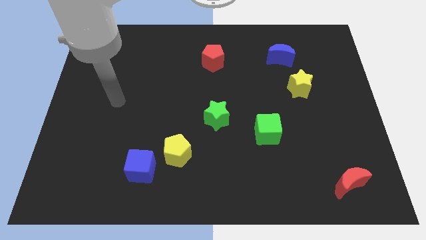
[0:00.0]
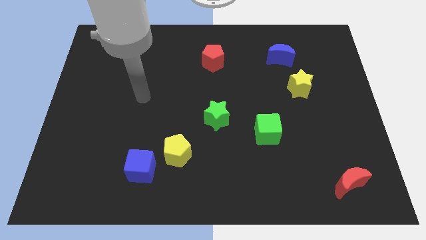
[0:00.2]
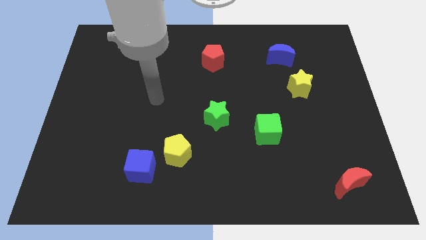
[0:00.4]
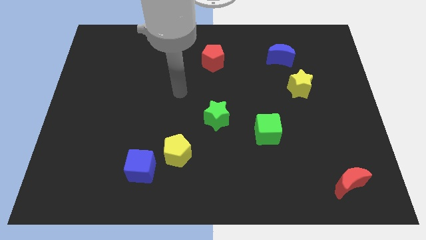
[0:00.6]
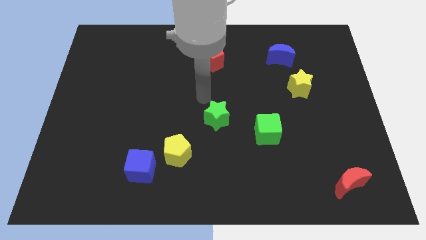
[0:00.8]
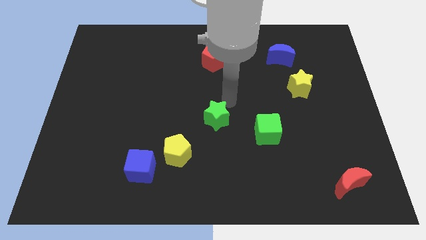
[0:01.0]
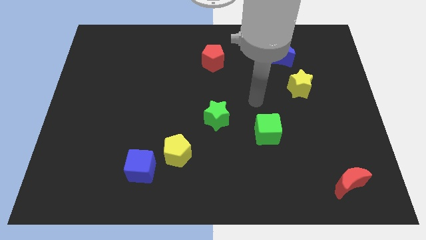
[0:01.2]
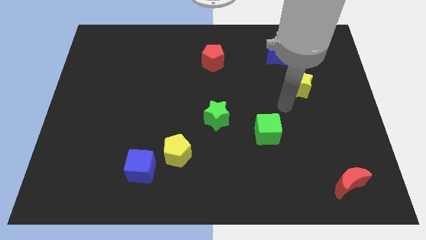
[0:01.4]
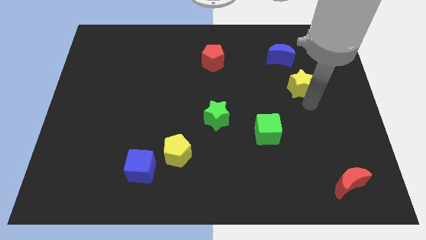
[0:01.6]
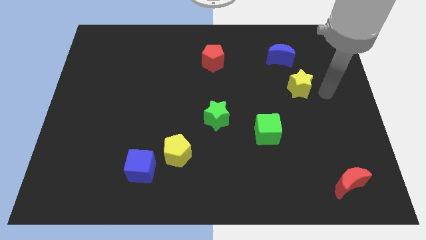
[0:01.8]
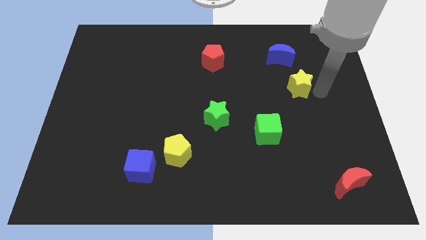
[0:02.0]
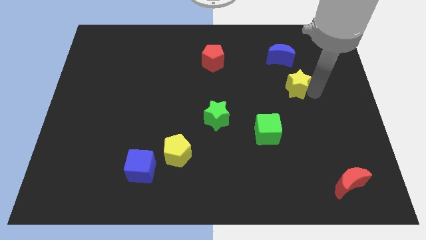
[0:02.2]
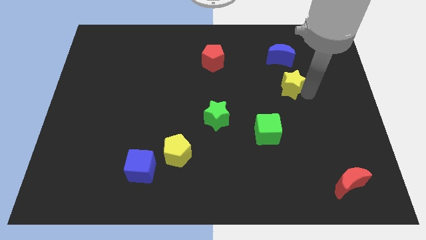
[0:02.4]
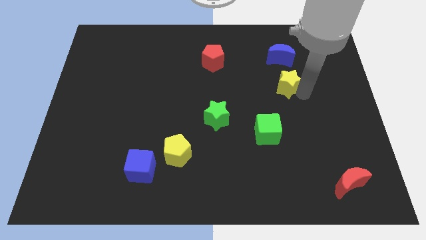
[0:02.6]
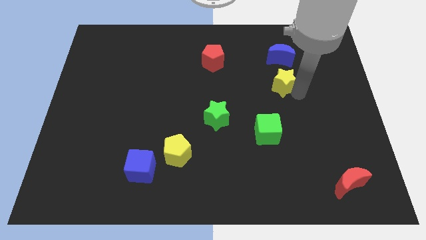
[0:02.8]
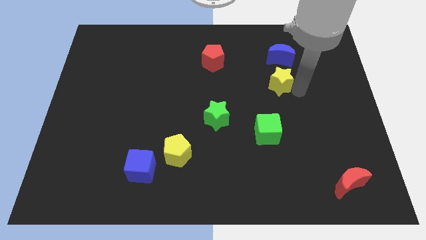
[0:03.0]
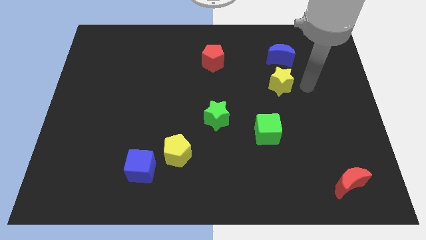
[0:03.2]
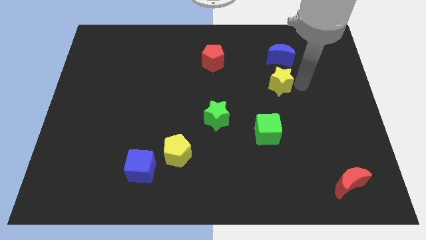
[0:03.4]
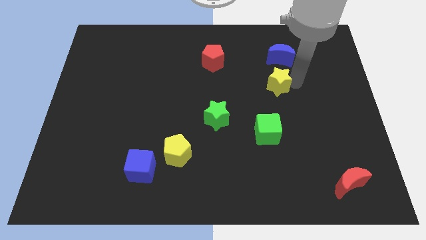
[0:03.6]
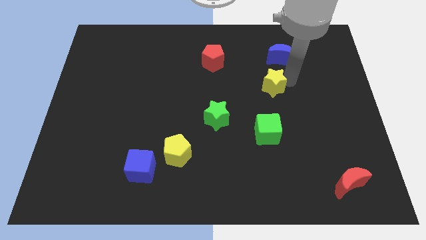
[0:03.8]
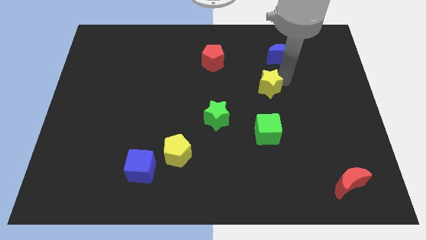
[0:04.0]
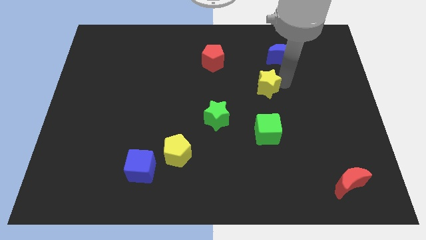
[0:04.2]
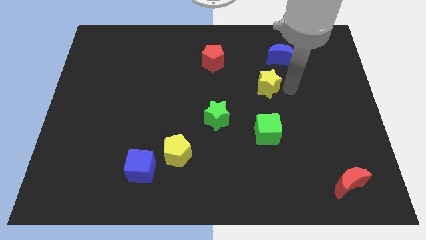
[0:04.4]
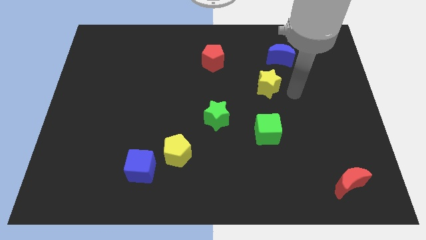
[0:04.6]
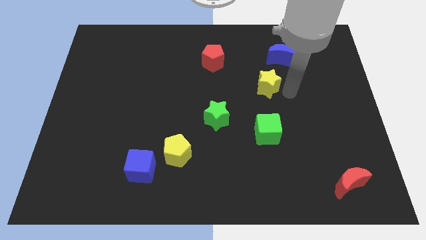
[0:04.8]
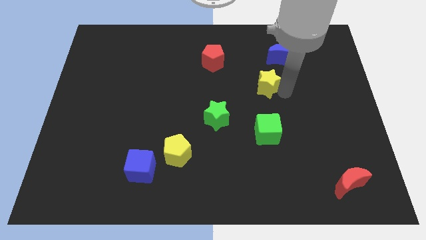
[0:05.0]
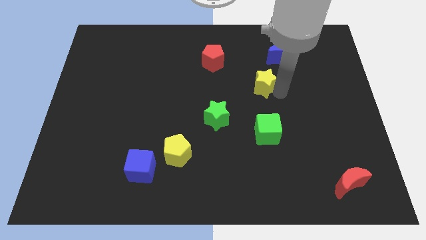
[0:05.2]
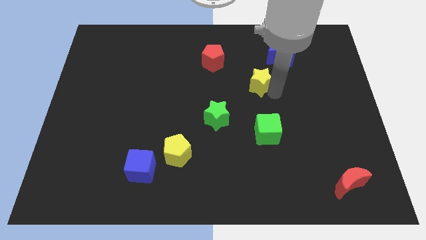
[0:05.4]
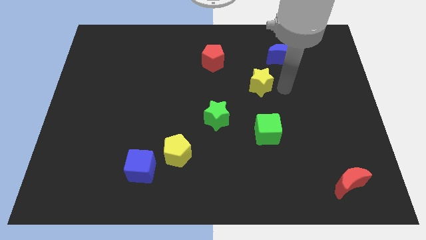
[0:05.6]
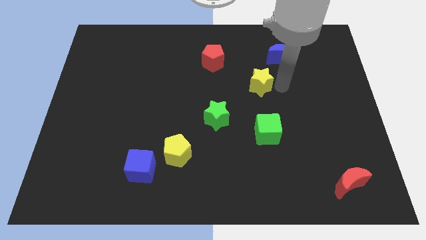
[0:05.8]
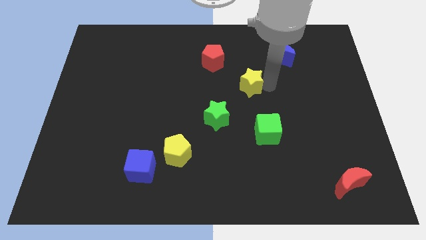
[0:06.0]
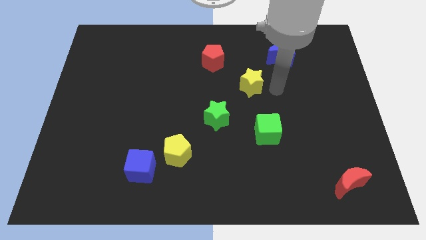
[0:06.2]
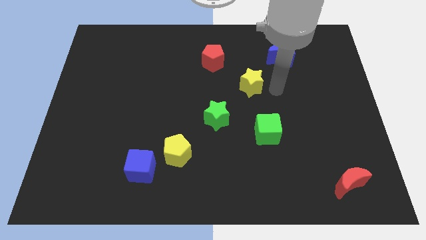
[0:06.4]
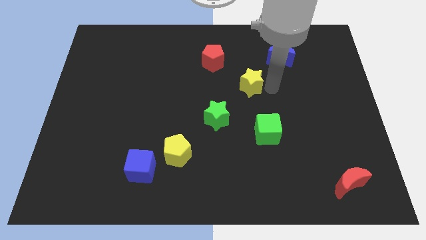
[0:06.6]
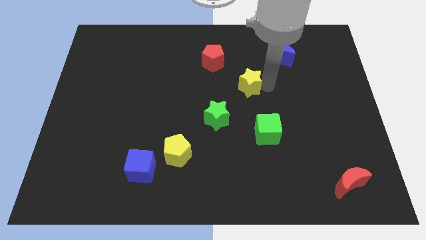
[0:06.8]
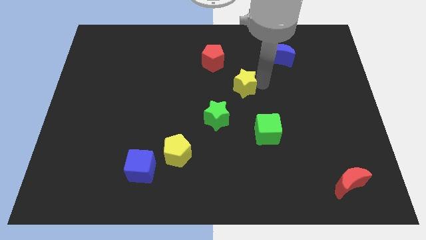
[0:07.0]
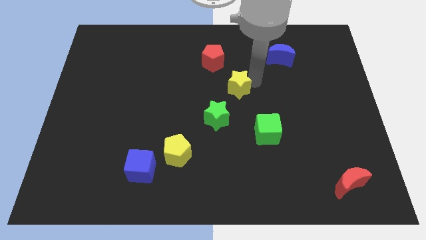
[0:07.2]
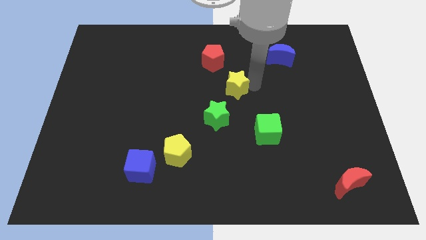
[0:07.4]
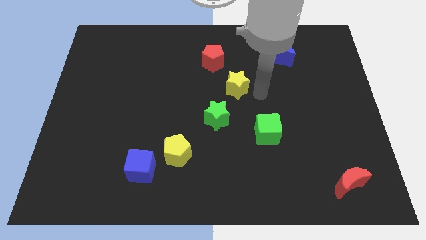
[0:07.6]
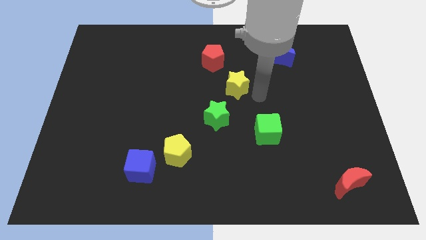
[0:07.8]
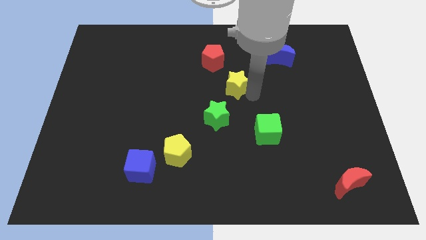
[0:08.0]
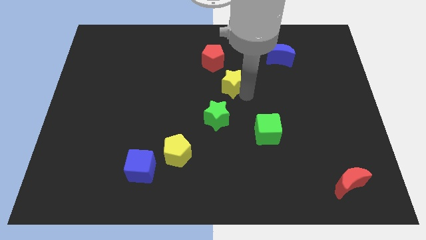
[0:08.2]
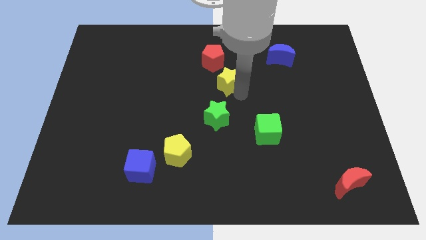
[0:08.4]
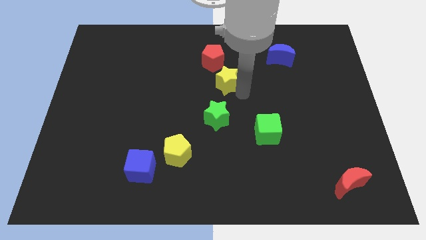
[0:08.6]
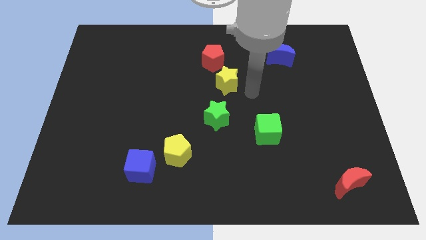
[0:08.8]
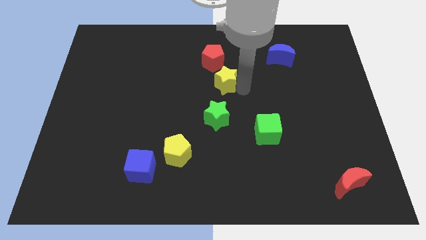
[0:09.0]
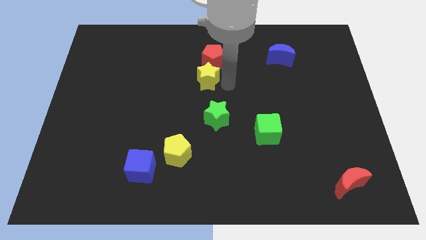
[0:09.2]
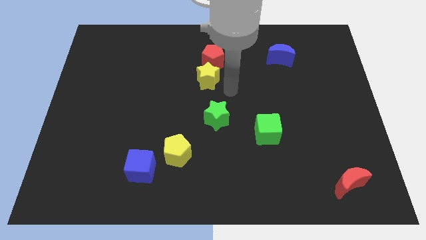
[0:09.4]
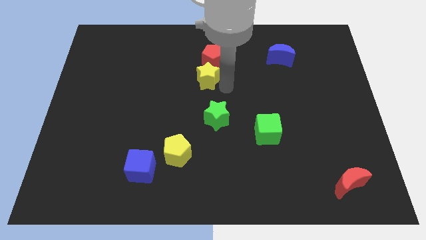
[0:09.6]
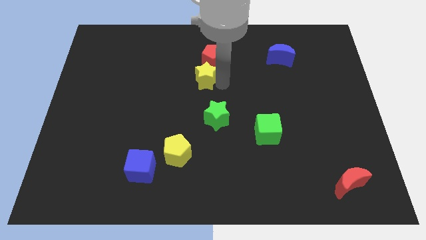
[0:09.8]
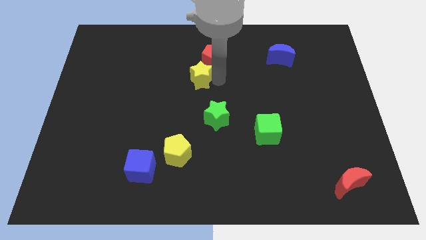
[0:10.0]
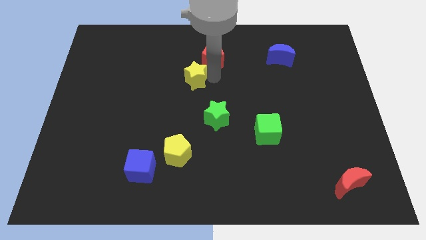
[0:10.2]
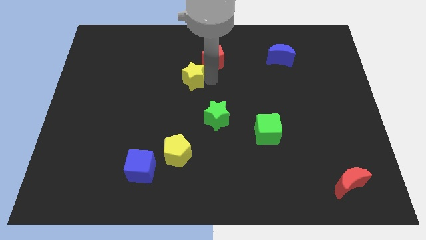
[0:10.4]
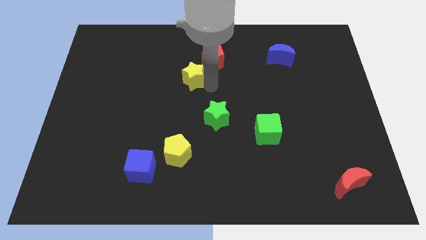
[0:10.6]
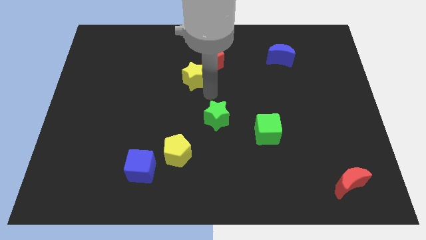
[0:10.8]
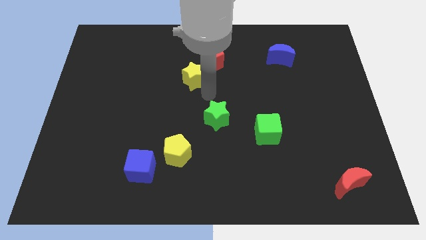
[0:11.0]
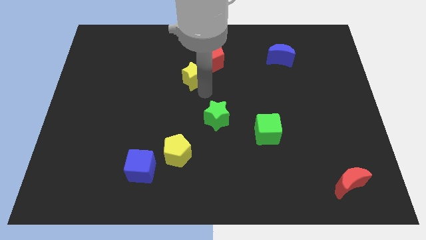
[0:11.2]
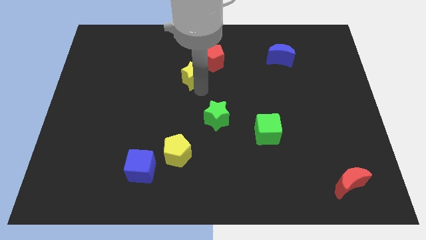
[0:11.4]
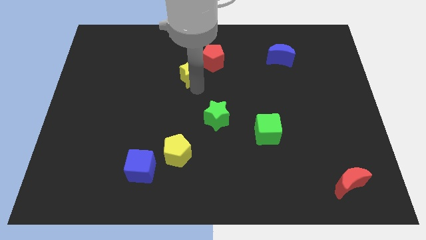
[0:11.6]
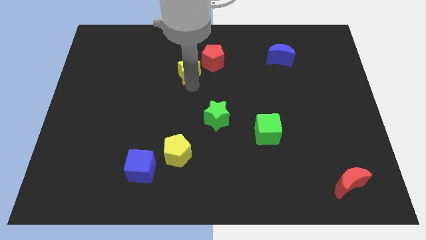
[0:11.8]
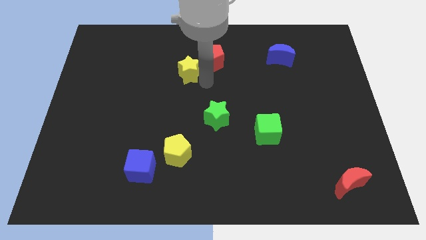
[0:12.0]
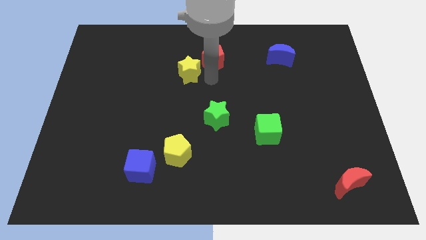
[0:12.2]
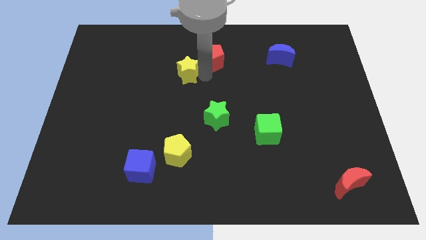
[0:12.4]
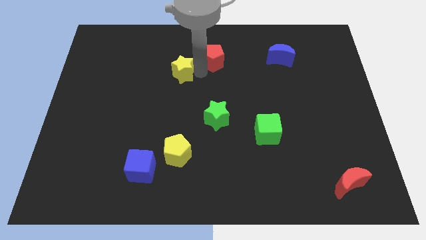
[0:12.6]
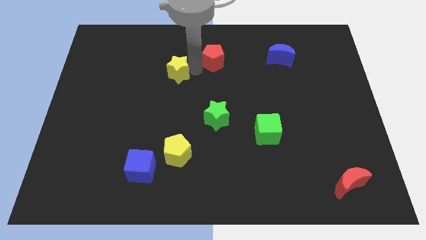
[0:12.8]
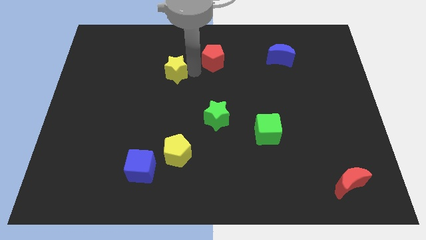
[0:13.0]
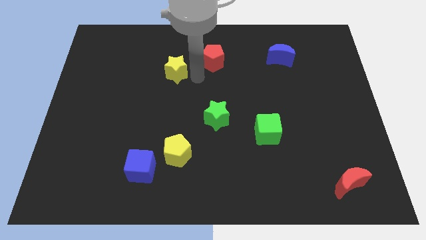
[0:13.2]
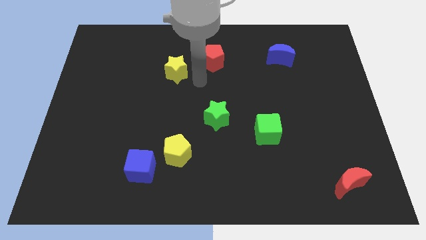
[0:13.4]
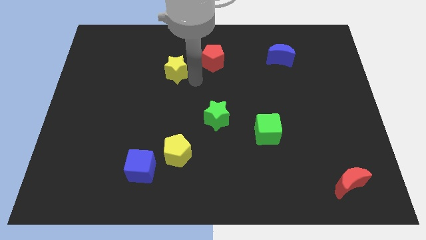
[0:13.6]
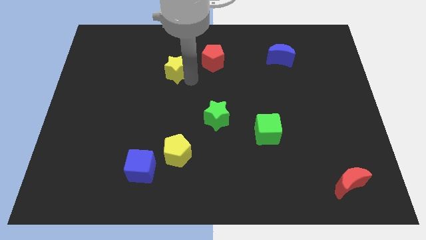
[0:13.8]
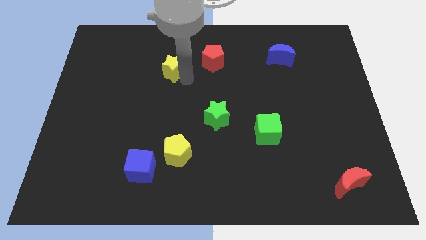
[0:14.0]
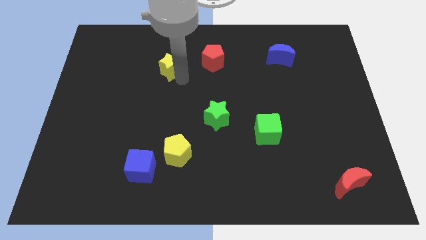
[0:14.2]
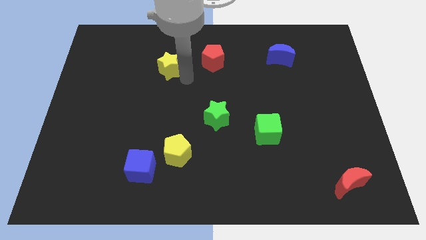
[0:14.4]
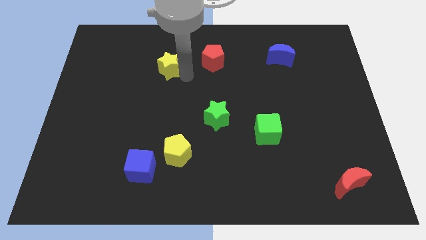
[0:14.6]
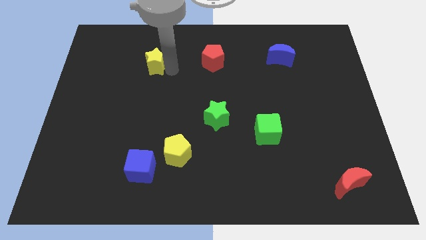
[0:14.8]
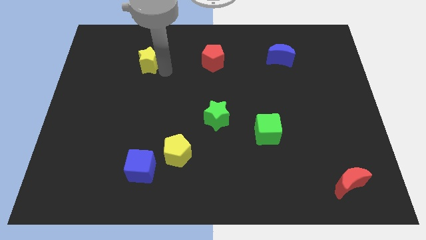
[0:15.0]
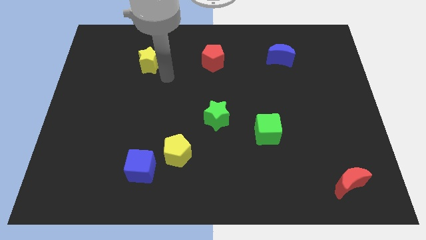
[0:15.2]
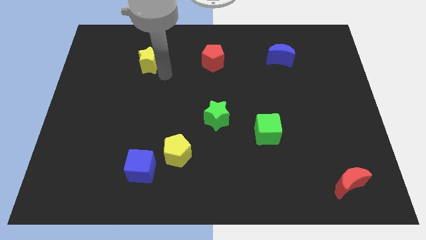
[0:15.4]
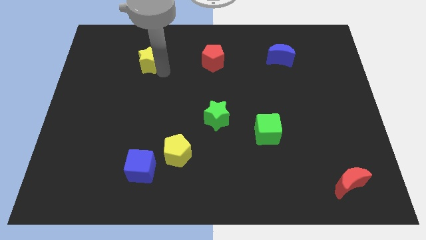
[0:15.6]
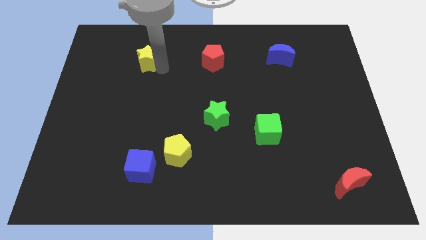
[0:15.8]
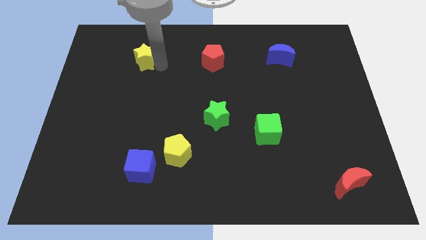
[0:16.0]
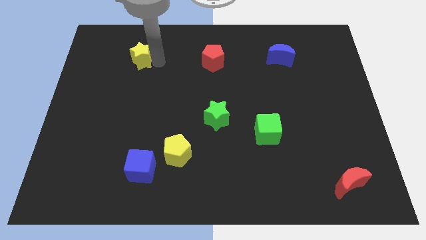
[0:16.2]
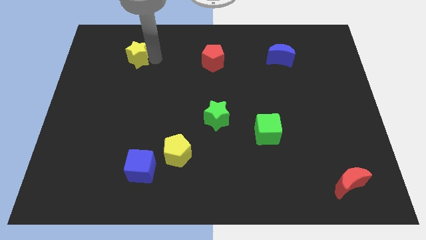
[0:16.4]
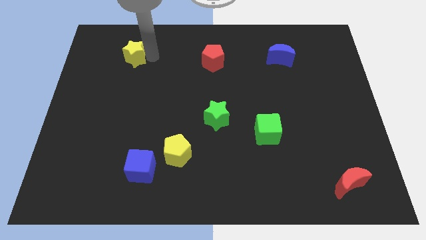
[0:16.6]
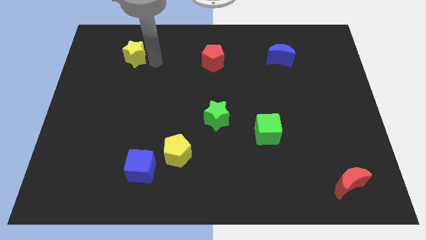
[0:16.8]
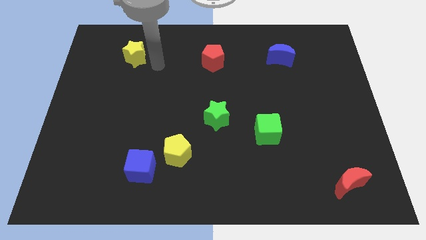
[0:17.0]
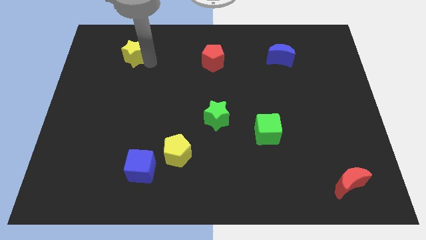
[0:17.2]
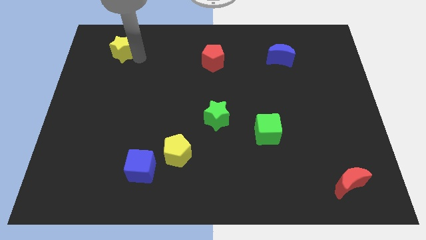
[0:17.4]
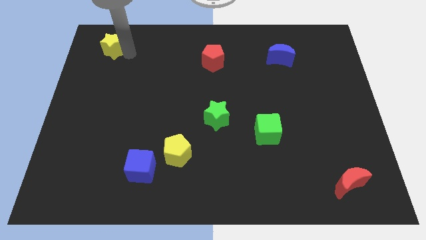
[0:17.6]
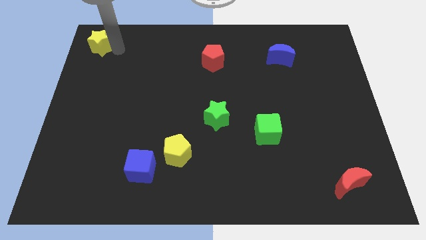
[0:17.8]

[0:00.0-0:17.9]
push the yellow star to the top left corner
